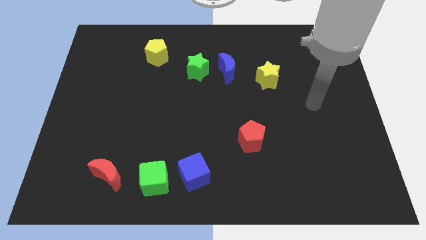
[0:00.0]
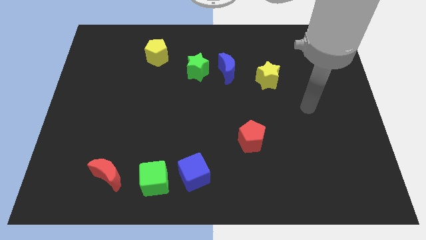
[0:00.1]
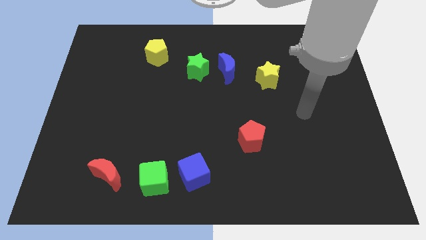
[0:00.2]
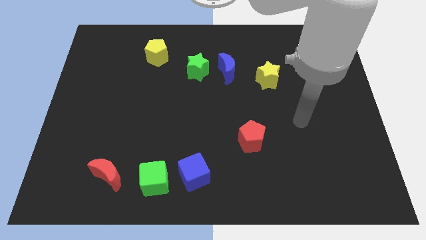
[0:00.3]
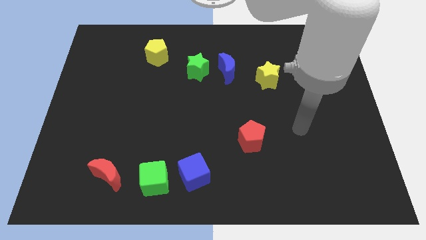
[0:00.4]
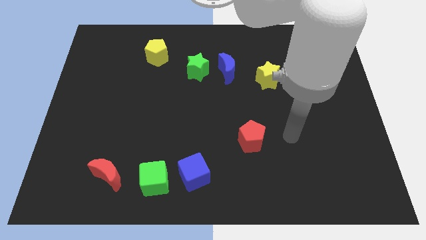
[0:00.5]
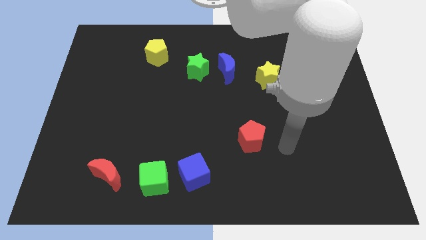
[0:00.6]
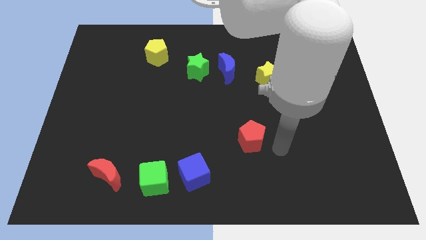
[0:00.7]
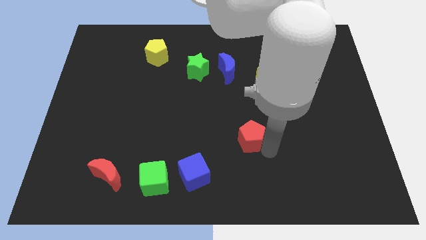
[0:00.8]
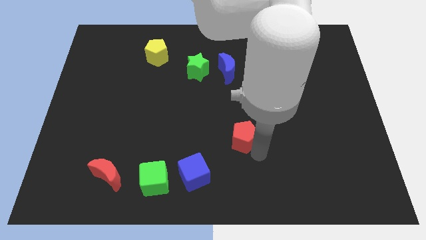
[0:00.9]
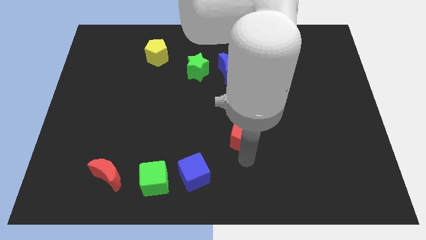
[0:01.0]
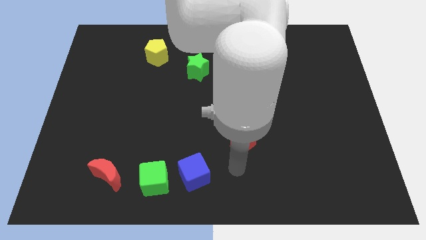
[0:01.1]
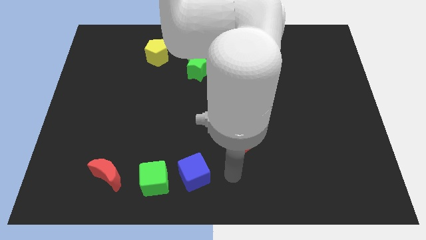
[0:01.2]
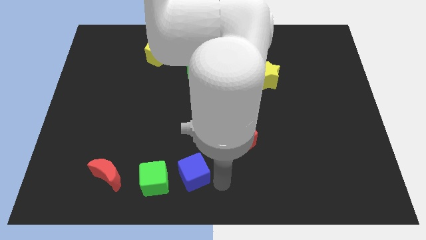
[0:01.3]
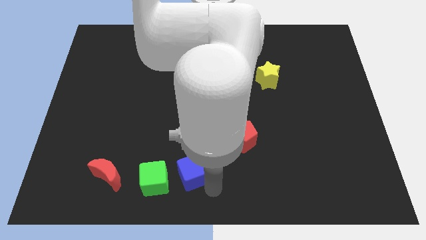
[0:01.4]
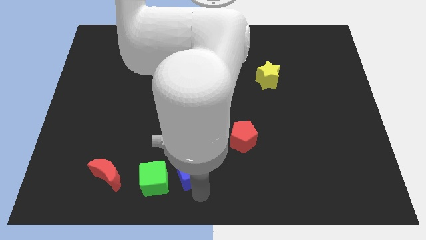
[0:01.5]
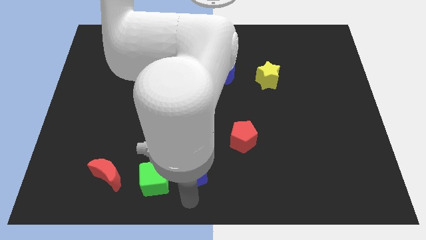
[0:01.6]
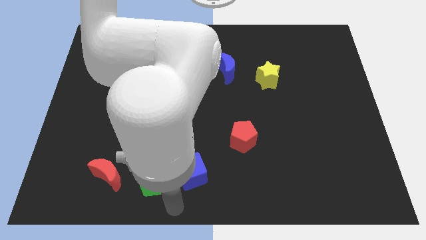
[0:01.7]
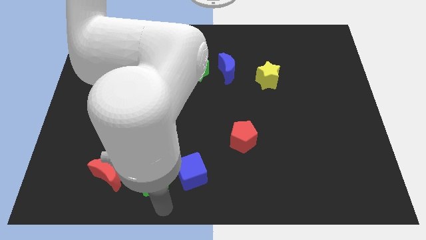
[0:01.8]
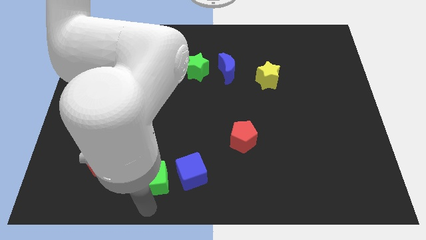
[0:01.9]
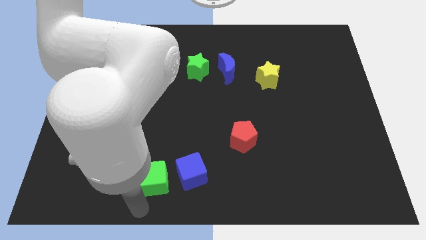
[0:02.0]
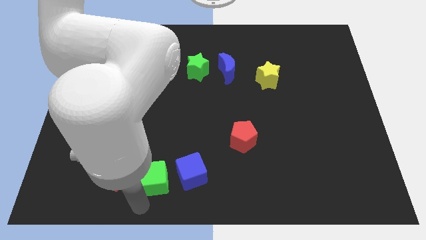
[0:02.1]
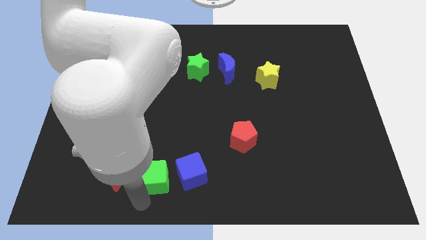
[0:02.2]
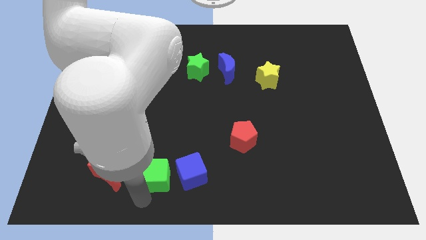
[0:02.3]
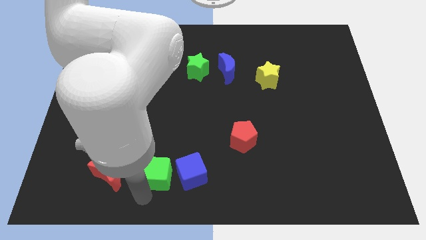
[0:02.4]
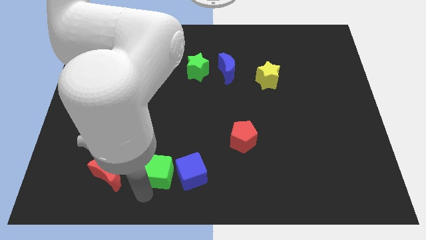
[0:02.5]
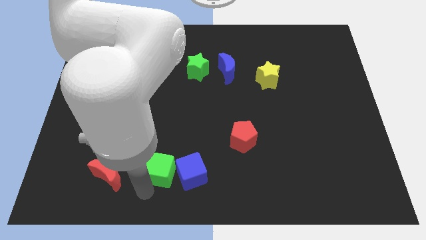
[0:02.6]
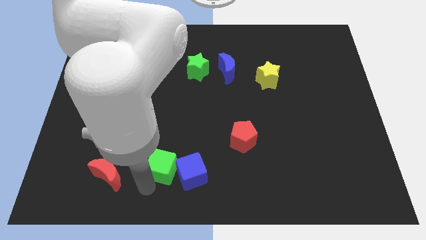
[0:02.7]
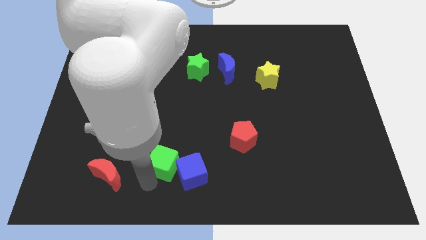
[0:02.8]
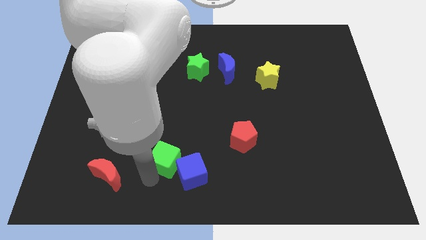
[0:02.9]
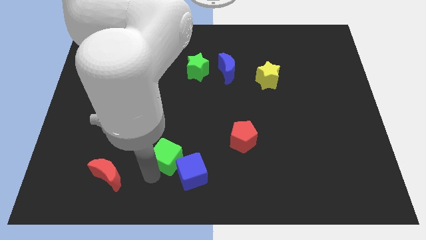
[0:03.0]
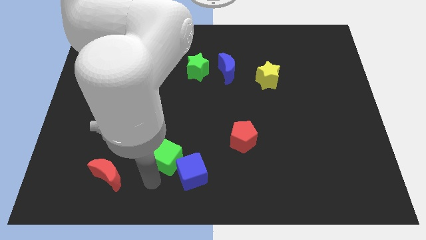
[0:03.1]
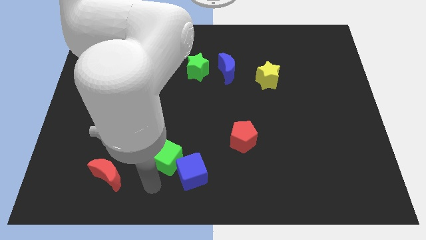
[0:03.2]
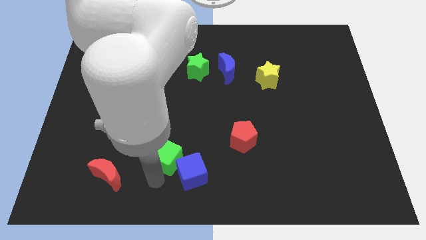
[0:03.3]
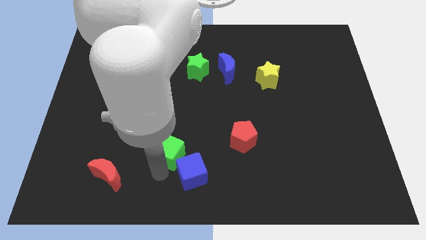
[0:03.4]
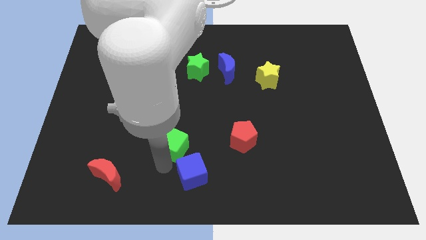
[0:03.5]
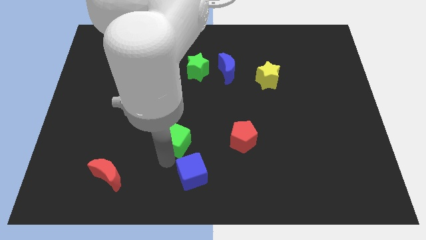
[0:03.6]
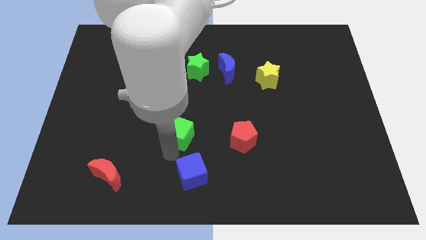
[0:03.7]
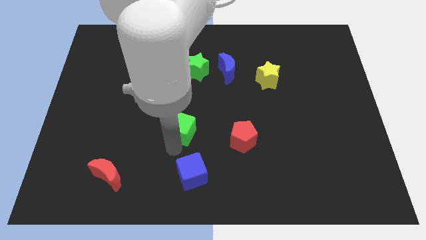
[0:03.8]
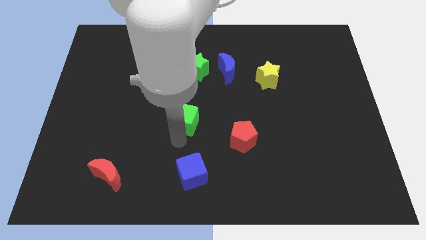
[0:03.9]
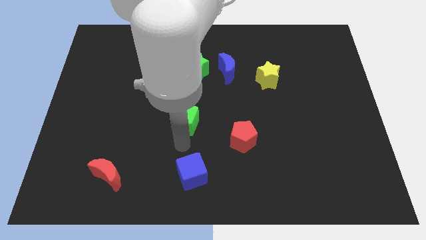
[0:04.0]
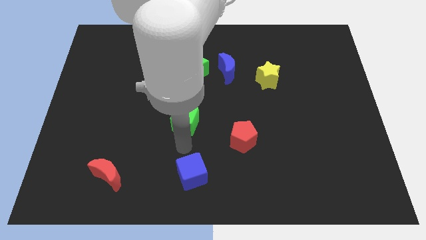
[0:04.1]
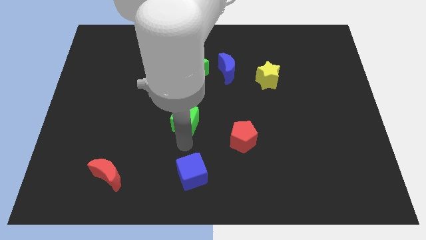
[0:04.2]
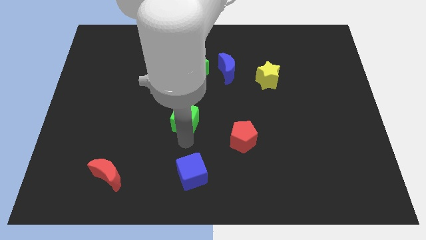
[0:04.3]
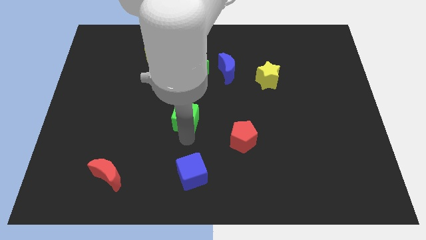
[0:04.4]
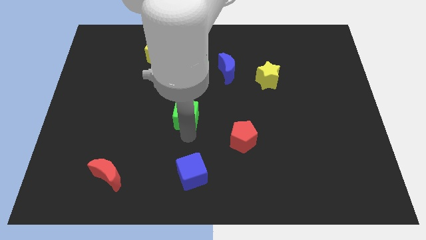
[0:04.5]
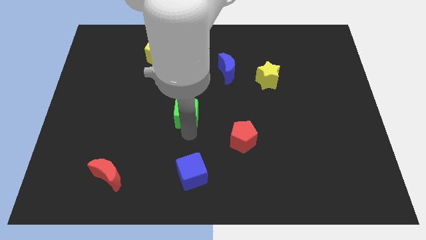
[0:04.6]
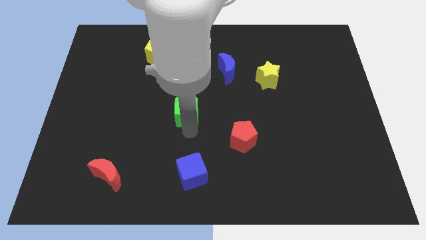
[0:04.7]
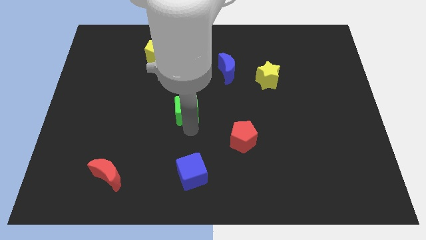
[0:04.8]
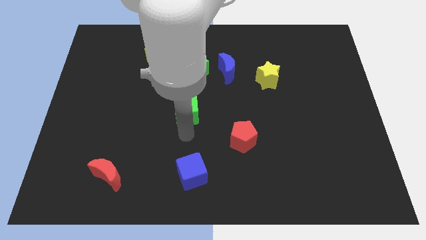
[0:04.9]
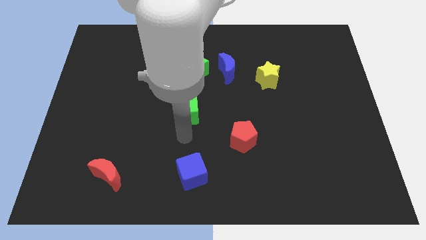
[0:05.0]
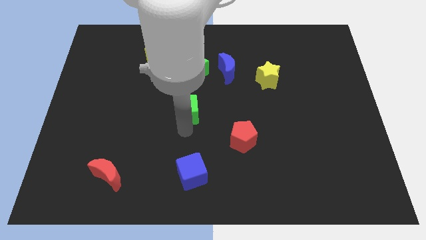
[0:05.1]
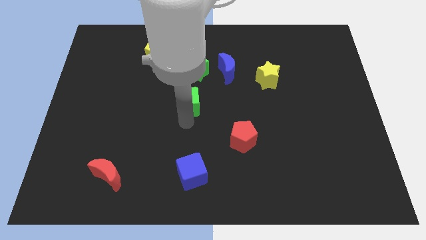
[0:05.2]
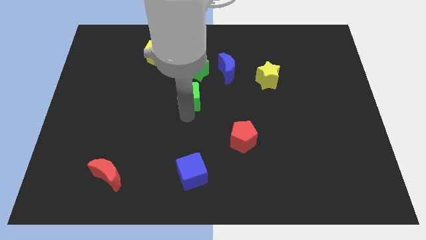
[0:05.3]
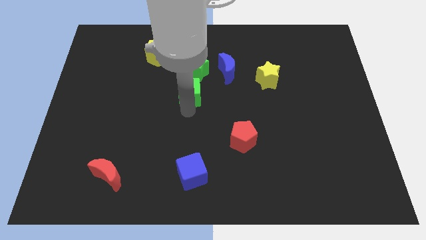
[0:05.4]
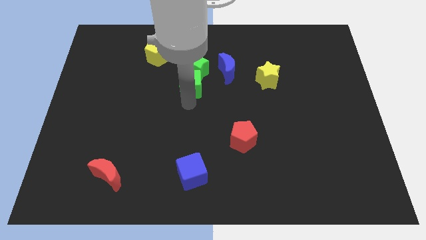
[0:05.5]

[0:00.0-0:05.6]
slide the green cube towards the green star

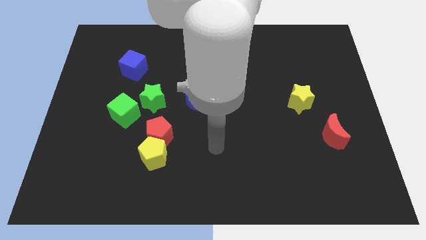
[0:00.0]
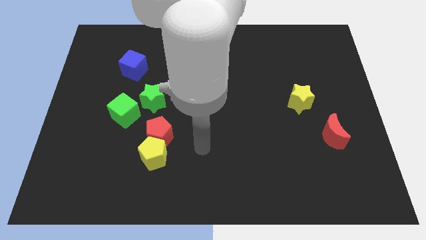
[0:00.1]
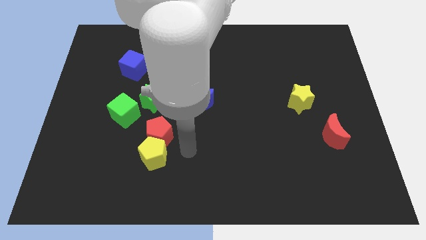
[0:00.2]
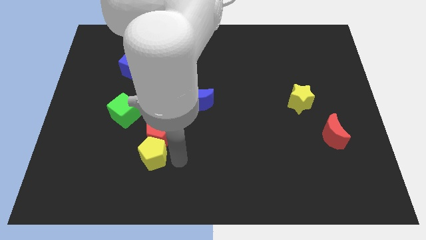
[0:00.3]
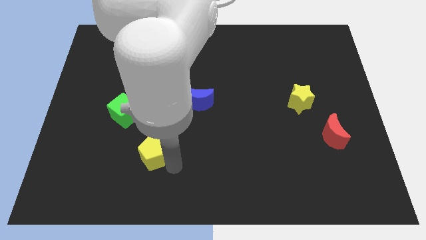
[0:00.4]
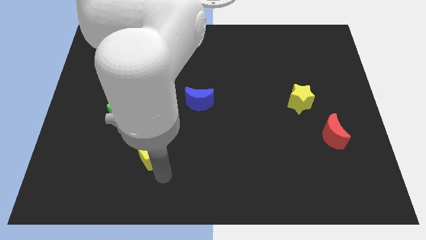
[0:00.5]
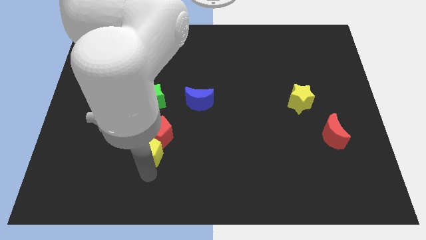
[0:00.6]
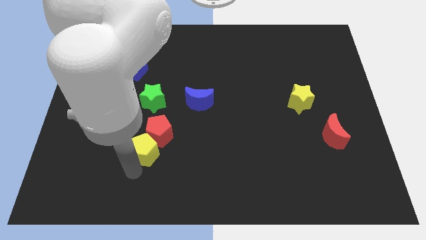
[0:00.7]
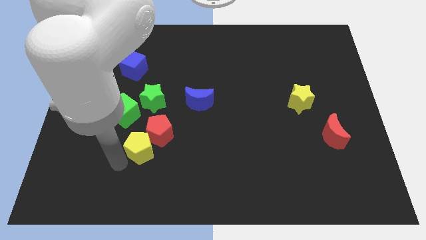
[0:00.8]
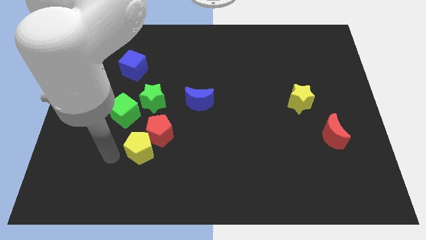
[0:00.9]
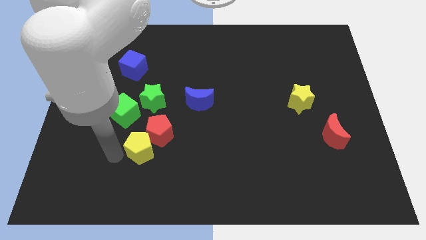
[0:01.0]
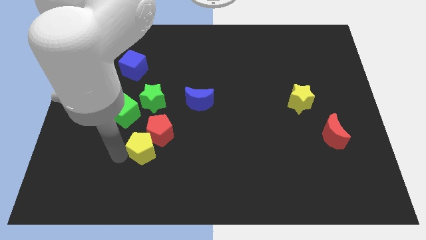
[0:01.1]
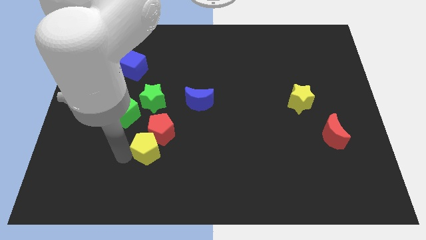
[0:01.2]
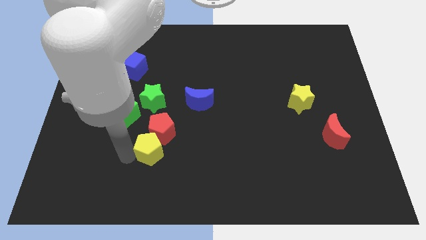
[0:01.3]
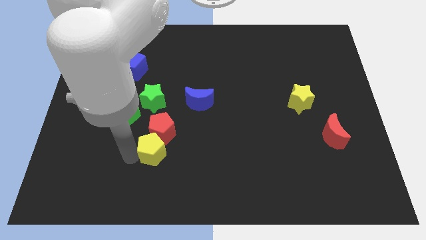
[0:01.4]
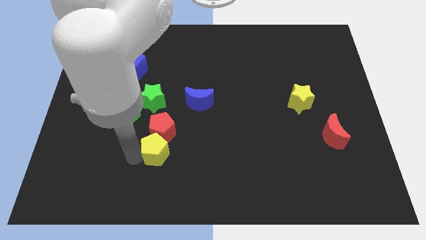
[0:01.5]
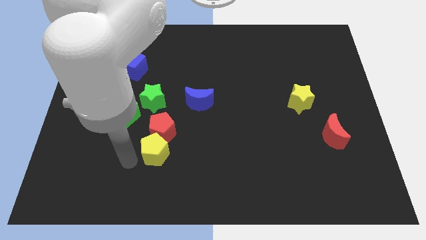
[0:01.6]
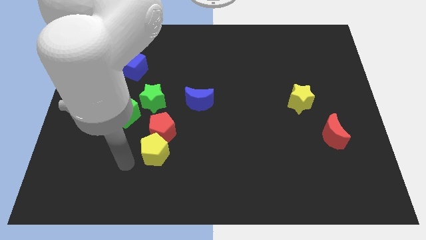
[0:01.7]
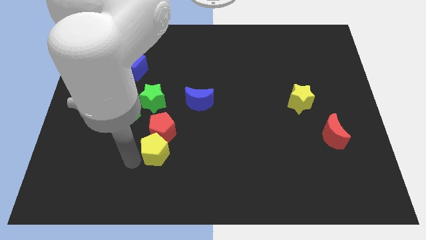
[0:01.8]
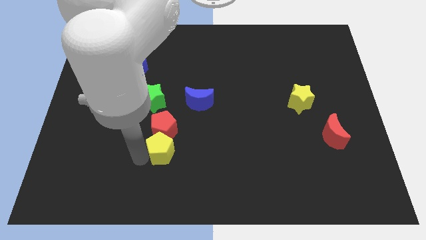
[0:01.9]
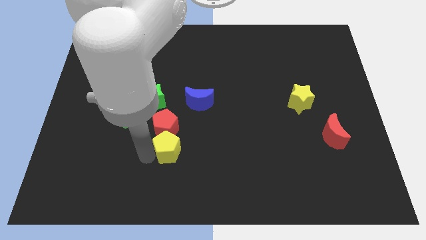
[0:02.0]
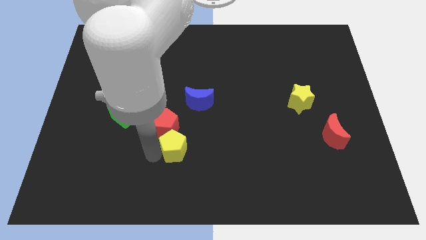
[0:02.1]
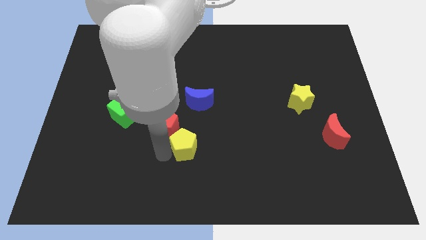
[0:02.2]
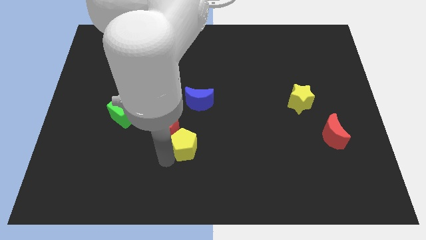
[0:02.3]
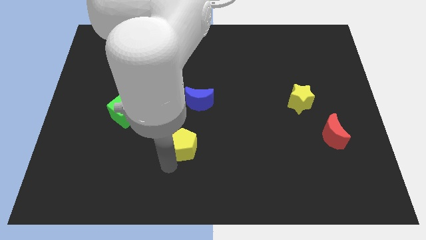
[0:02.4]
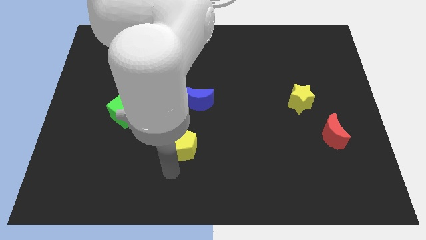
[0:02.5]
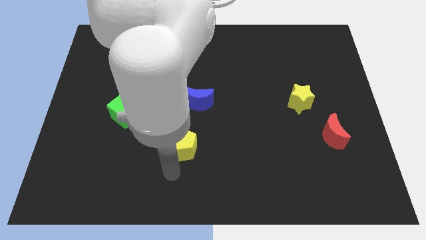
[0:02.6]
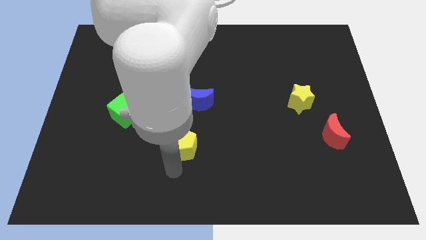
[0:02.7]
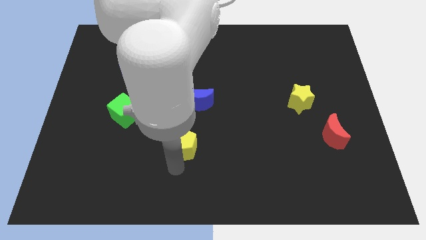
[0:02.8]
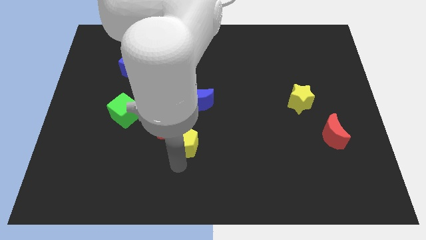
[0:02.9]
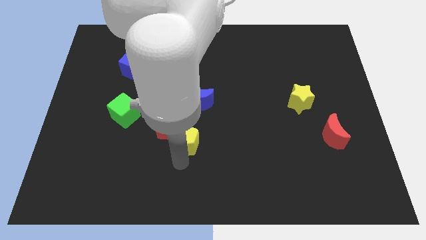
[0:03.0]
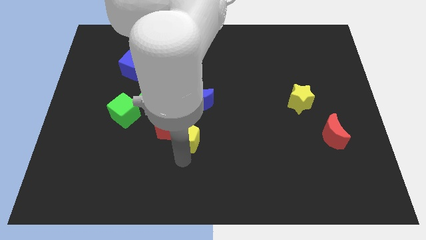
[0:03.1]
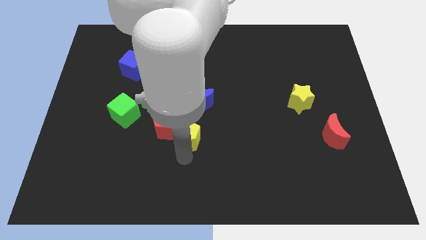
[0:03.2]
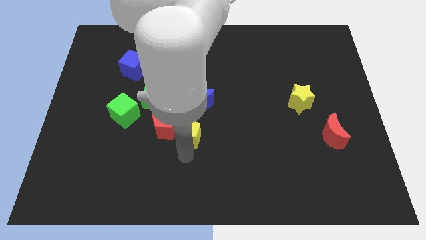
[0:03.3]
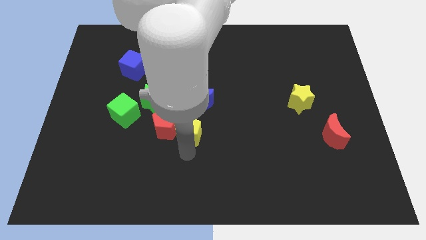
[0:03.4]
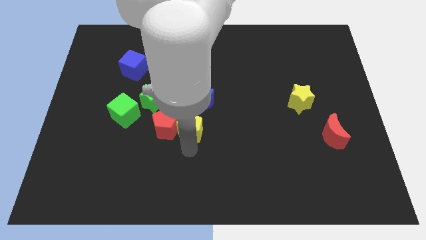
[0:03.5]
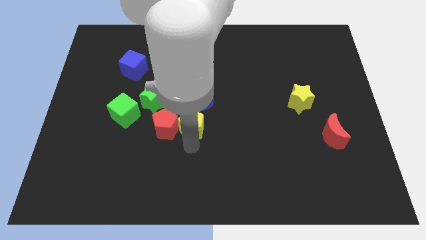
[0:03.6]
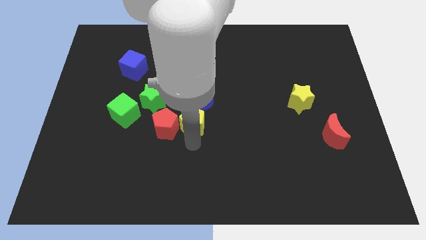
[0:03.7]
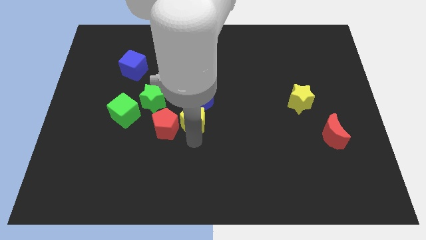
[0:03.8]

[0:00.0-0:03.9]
move the yellow pentagon towards the blue moon
